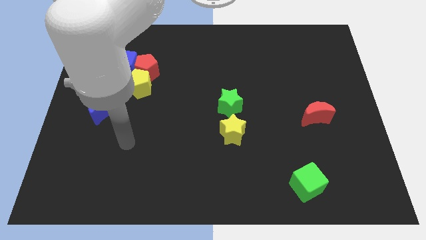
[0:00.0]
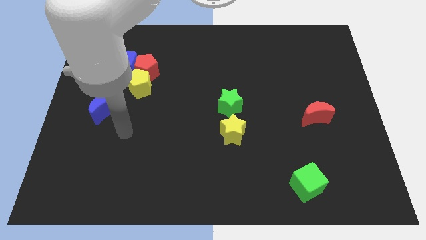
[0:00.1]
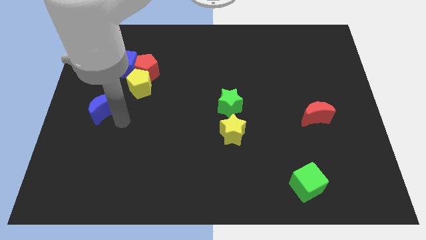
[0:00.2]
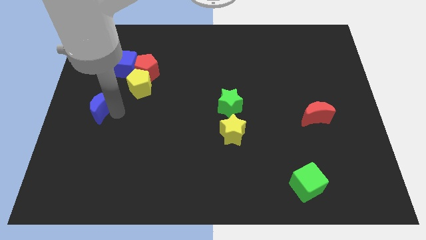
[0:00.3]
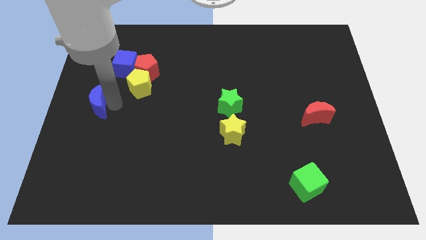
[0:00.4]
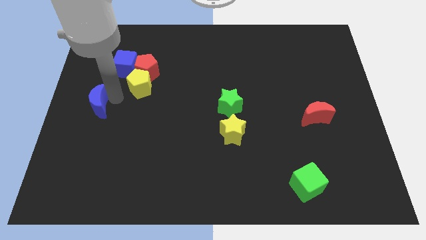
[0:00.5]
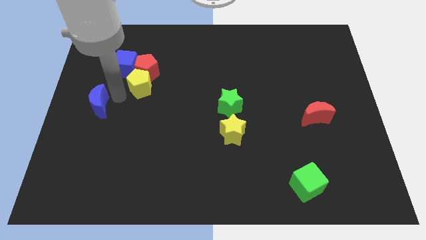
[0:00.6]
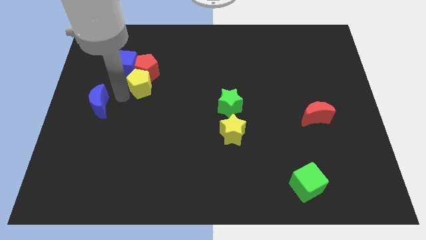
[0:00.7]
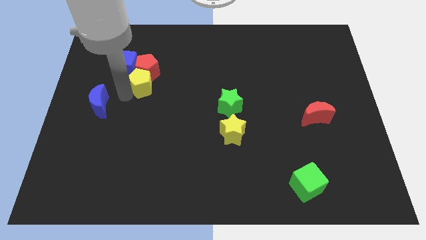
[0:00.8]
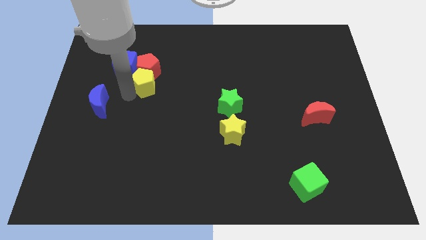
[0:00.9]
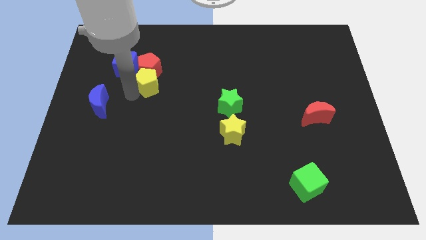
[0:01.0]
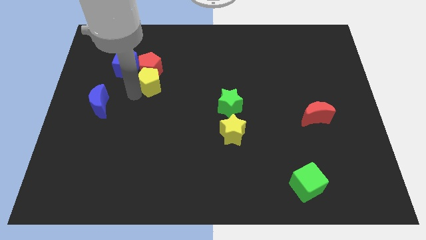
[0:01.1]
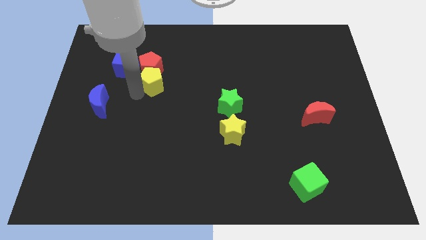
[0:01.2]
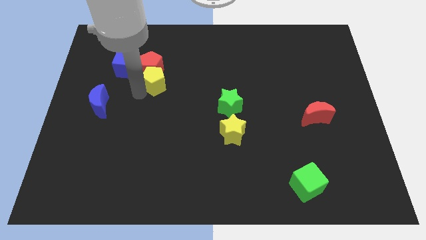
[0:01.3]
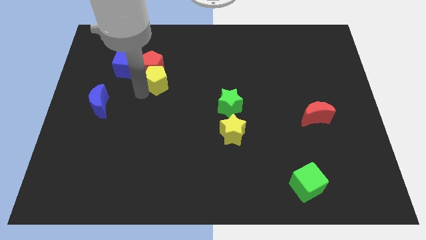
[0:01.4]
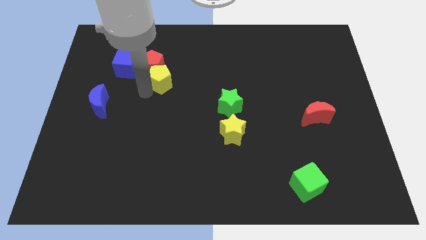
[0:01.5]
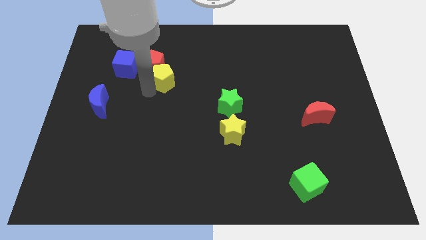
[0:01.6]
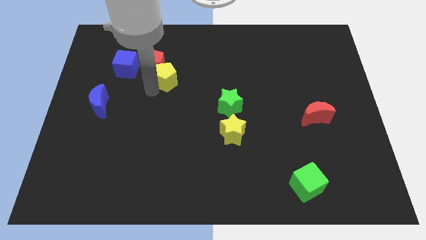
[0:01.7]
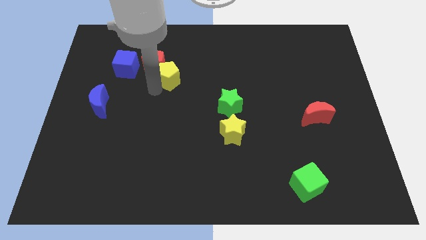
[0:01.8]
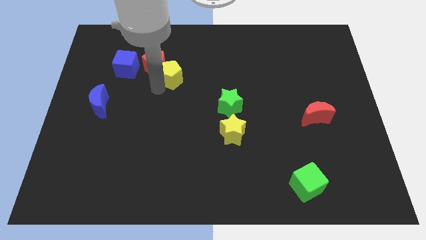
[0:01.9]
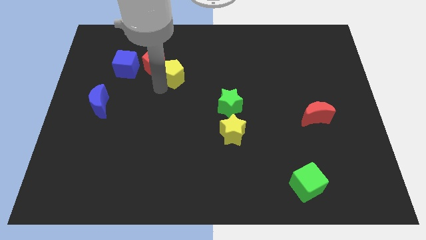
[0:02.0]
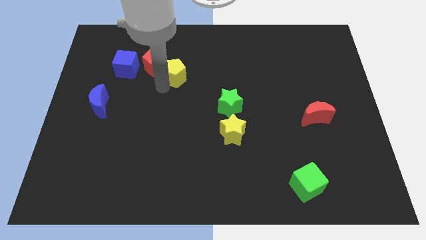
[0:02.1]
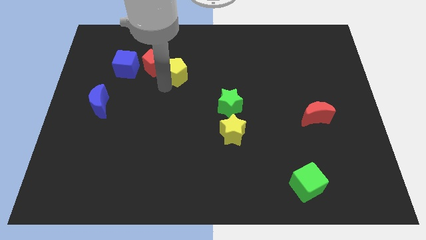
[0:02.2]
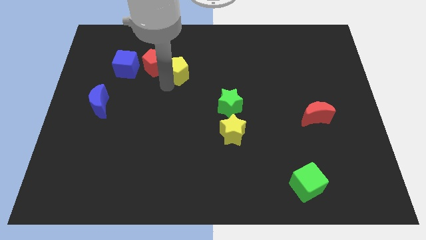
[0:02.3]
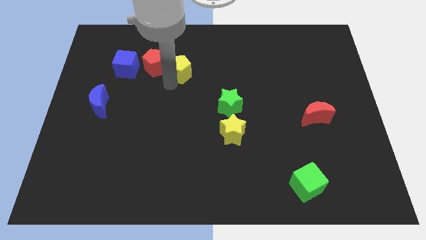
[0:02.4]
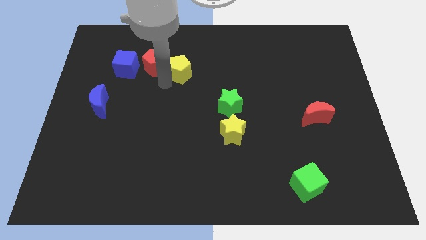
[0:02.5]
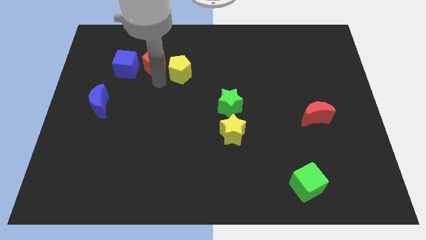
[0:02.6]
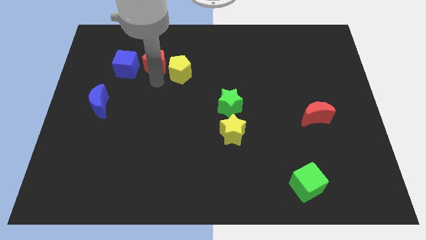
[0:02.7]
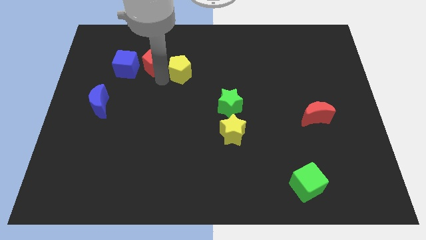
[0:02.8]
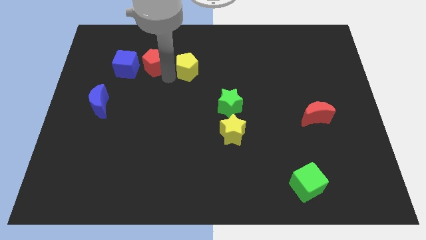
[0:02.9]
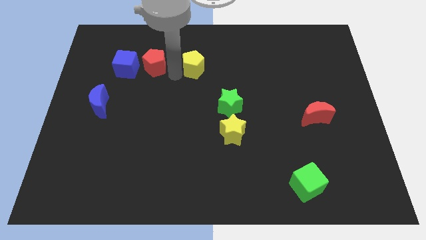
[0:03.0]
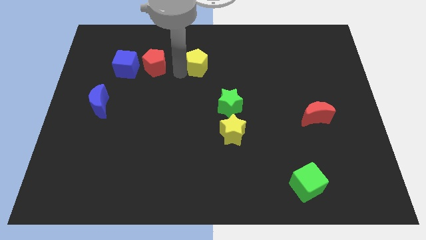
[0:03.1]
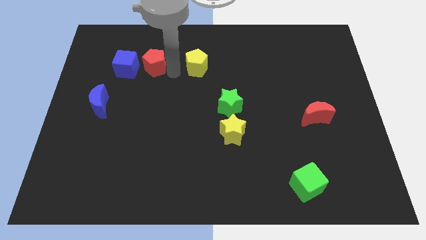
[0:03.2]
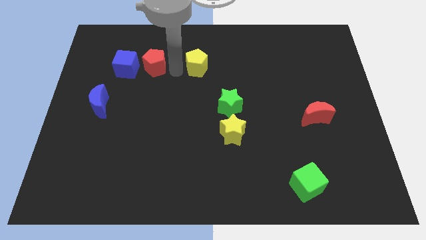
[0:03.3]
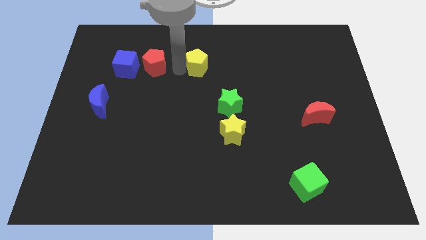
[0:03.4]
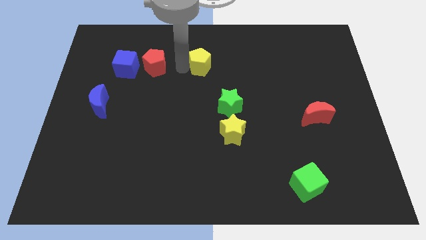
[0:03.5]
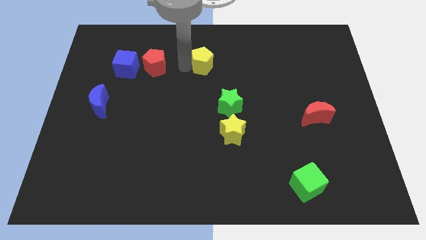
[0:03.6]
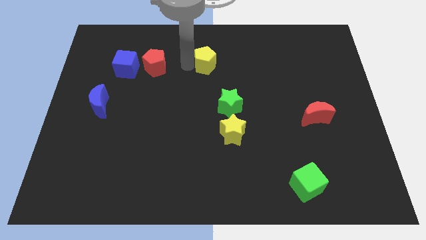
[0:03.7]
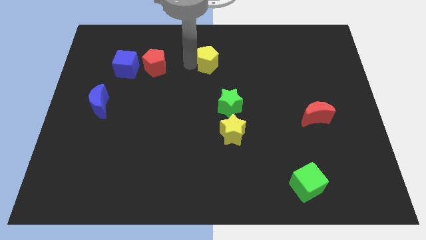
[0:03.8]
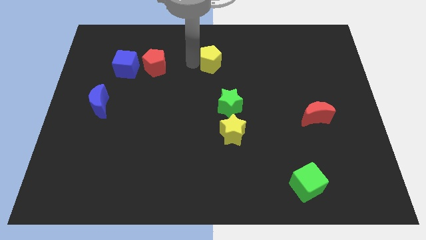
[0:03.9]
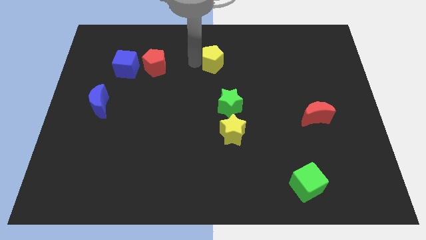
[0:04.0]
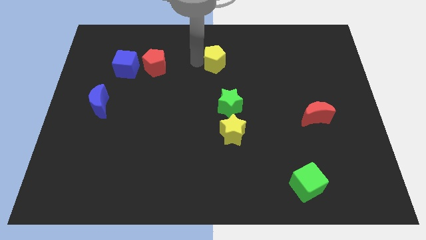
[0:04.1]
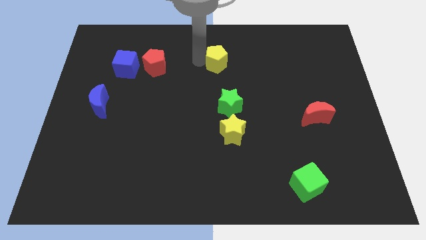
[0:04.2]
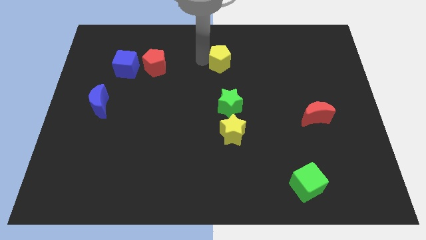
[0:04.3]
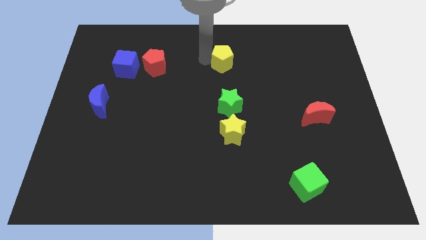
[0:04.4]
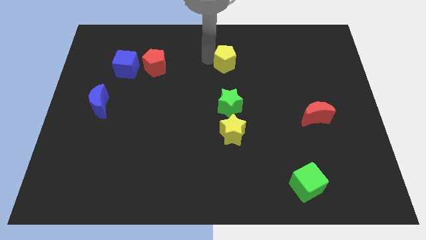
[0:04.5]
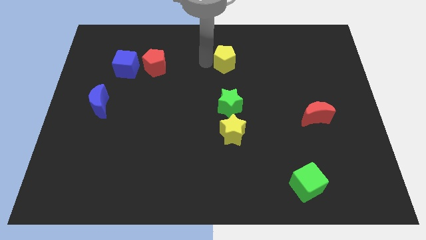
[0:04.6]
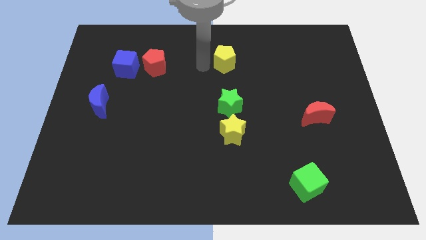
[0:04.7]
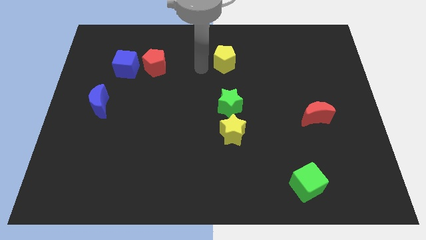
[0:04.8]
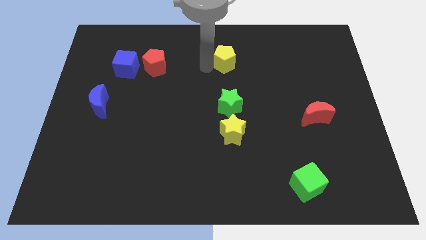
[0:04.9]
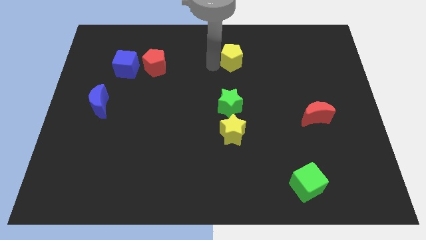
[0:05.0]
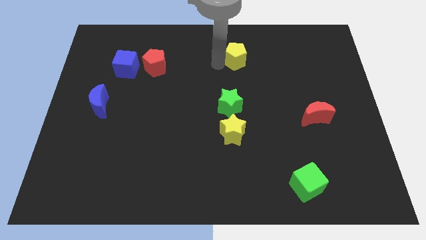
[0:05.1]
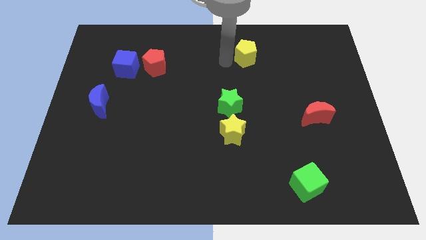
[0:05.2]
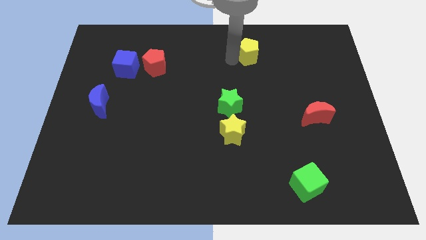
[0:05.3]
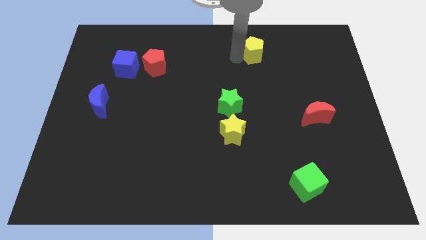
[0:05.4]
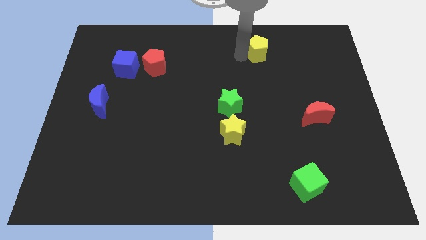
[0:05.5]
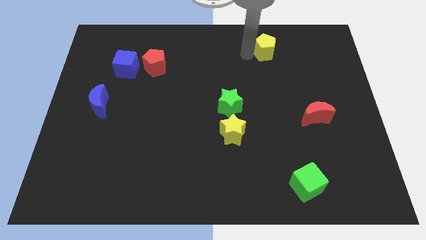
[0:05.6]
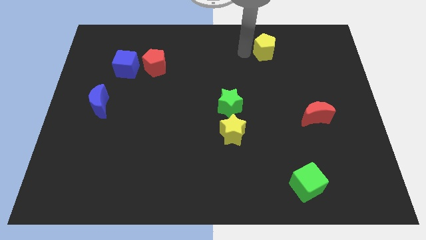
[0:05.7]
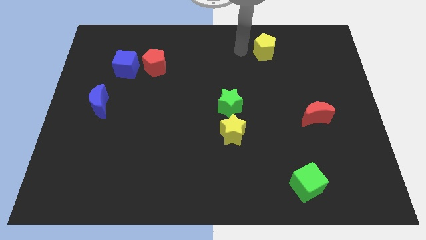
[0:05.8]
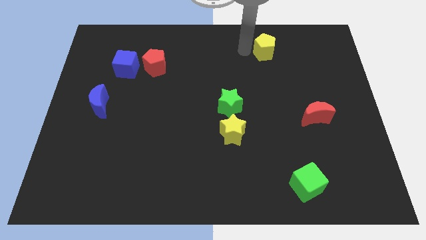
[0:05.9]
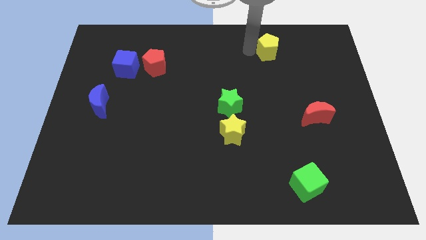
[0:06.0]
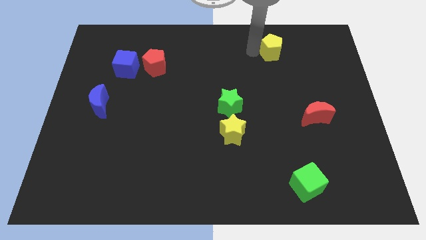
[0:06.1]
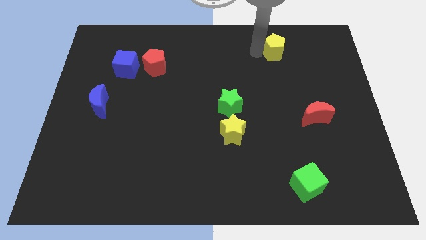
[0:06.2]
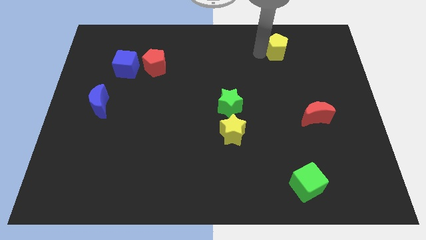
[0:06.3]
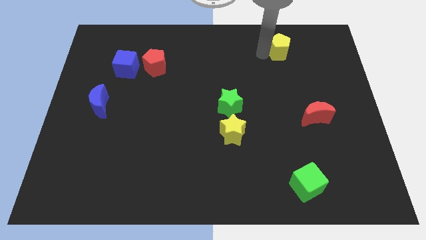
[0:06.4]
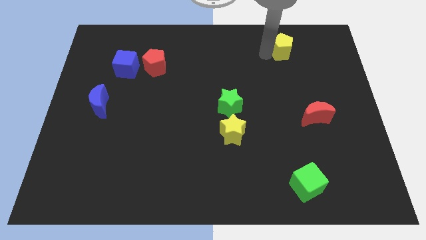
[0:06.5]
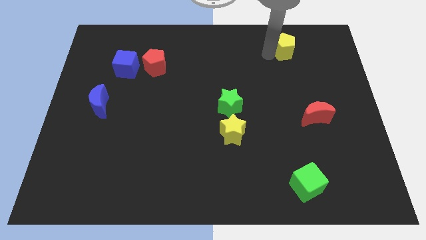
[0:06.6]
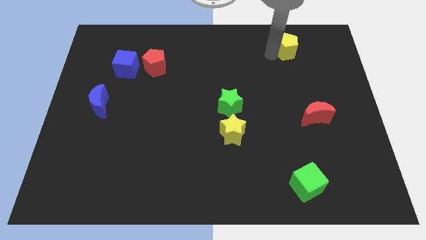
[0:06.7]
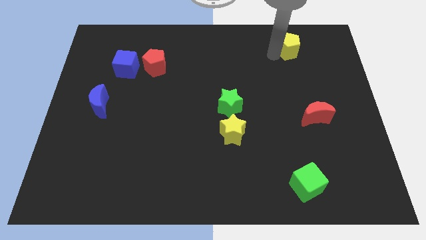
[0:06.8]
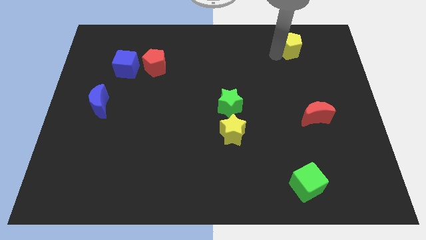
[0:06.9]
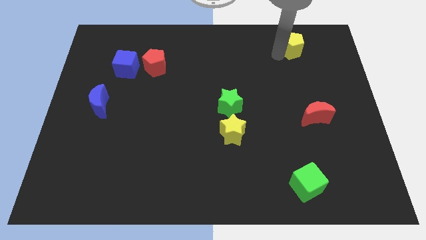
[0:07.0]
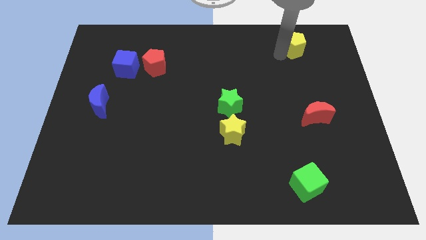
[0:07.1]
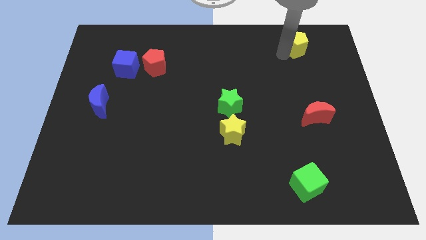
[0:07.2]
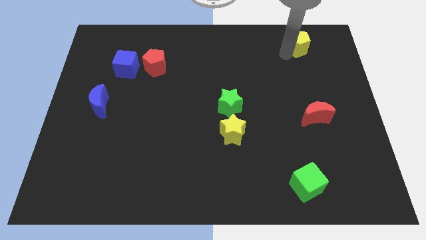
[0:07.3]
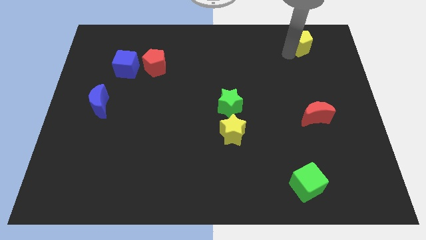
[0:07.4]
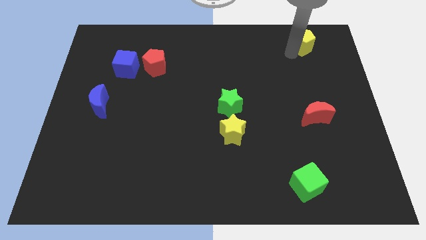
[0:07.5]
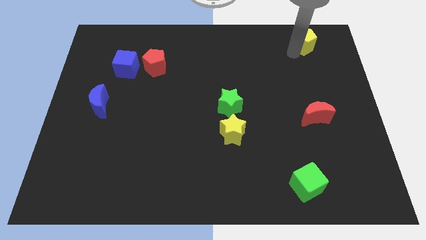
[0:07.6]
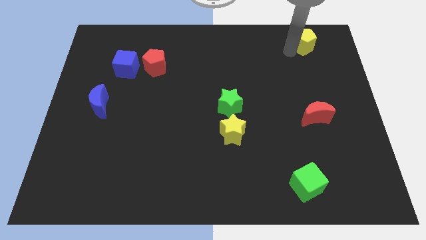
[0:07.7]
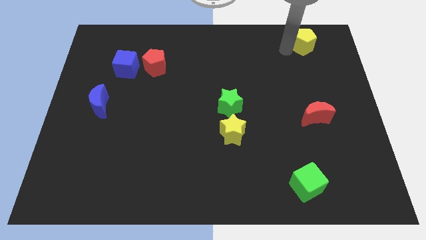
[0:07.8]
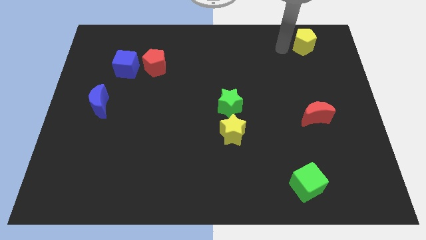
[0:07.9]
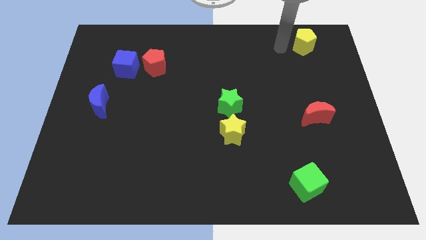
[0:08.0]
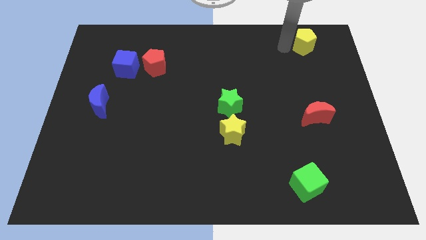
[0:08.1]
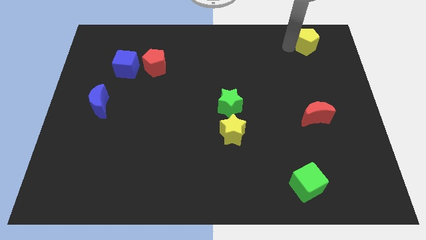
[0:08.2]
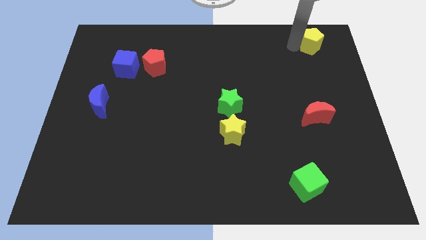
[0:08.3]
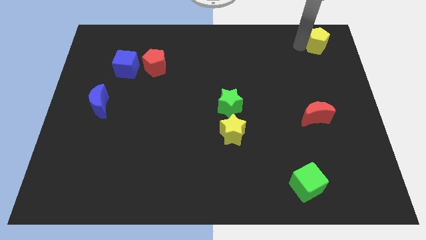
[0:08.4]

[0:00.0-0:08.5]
move the yellow pentagon to the top right corner
